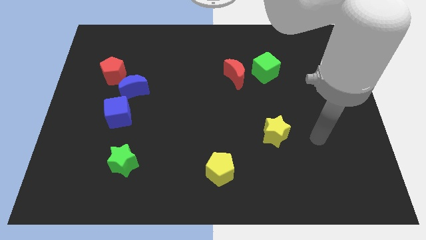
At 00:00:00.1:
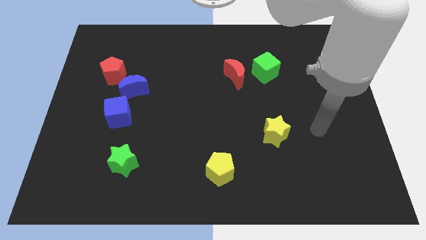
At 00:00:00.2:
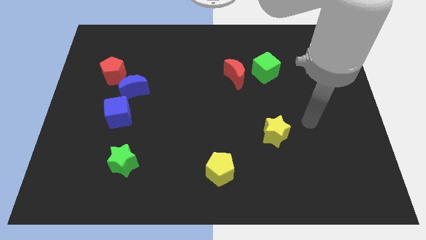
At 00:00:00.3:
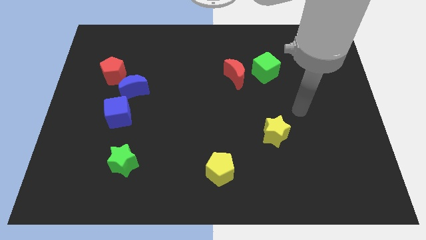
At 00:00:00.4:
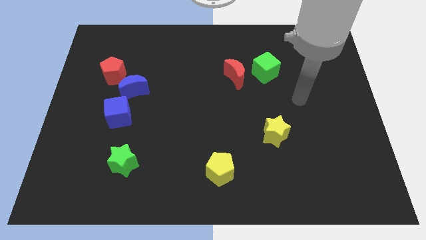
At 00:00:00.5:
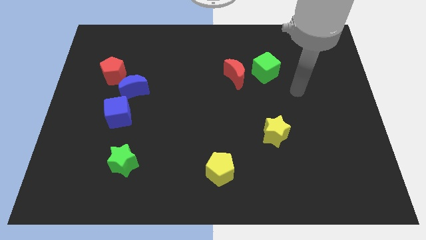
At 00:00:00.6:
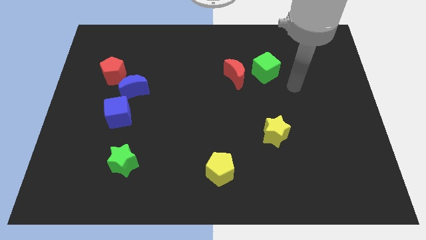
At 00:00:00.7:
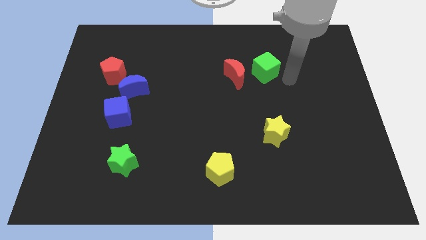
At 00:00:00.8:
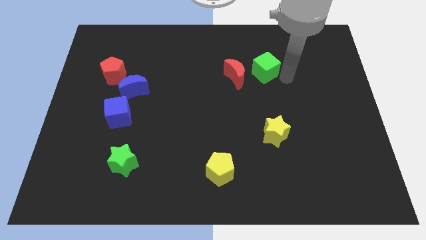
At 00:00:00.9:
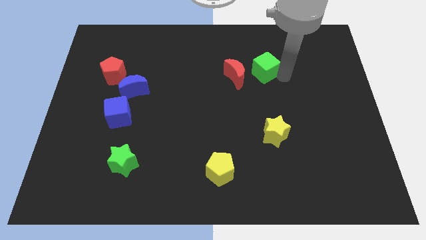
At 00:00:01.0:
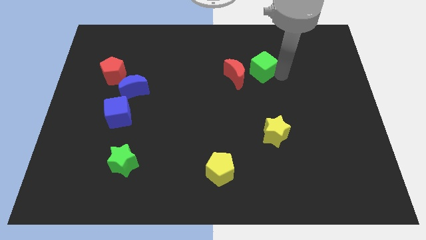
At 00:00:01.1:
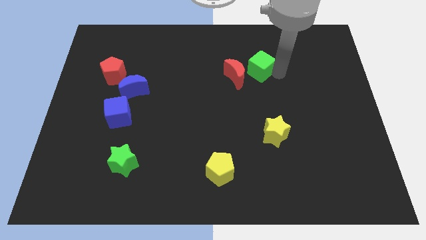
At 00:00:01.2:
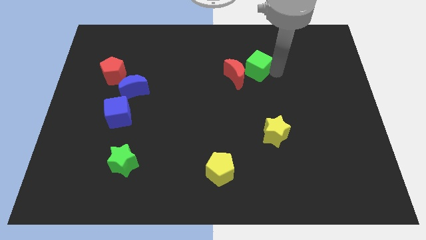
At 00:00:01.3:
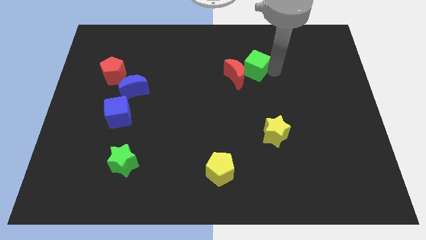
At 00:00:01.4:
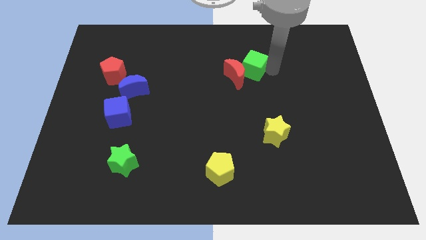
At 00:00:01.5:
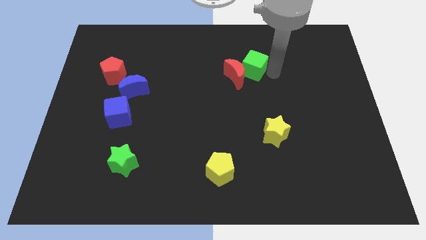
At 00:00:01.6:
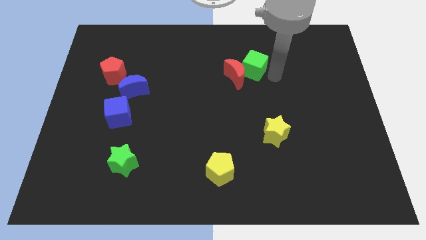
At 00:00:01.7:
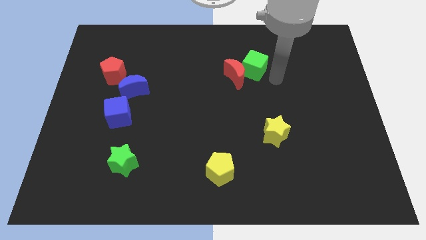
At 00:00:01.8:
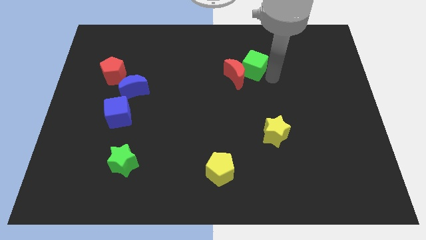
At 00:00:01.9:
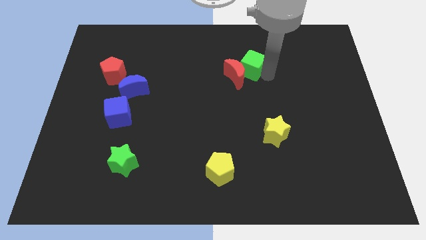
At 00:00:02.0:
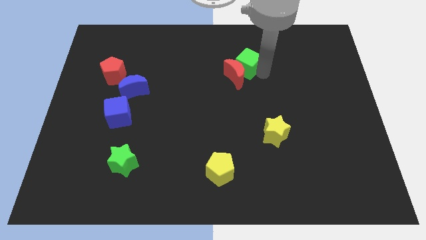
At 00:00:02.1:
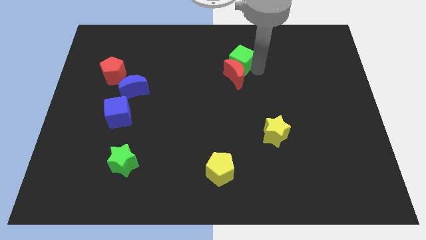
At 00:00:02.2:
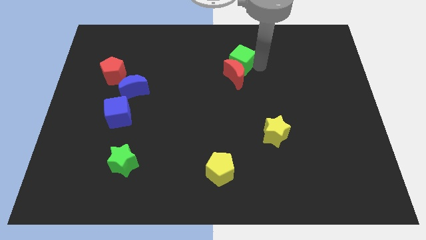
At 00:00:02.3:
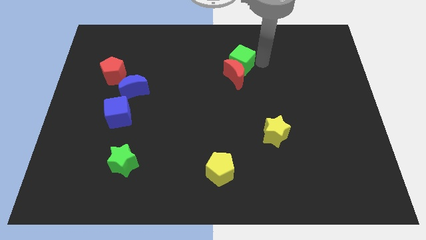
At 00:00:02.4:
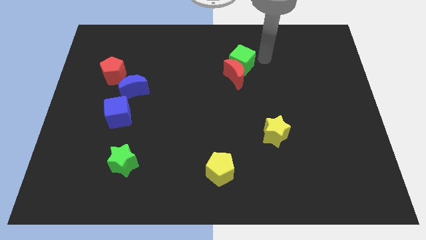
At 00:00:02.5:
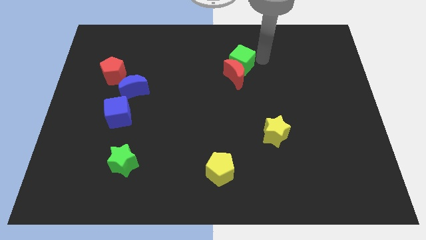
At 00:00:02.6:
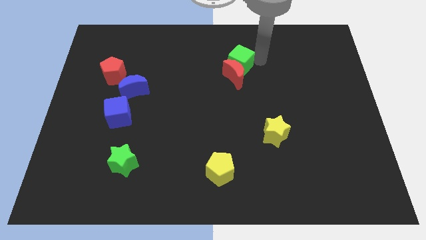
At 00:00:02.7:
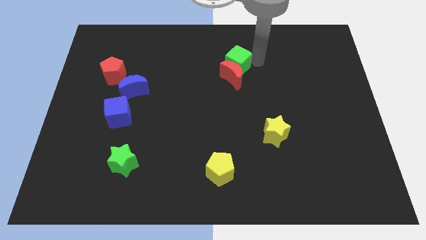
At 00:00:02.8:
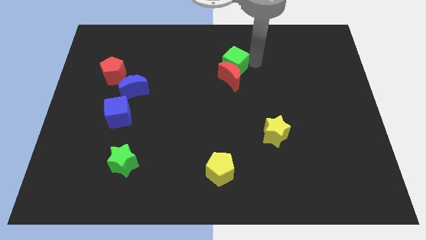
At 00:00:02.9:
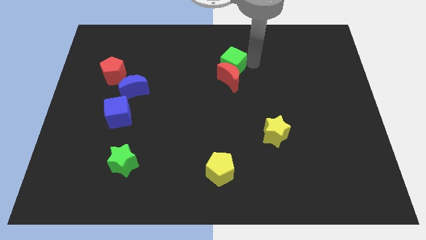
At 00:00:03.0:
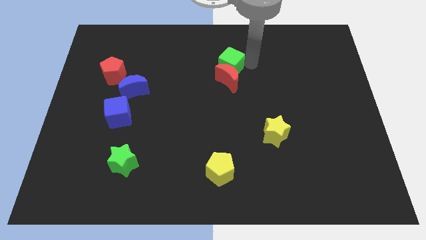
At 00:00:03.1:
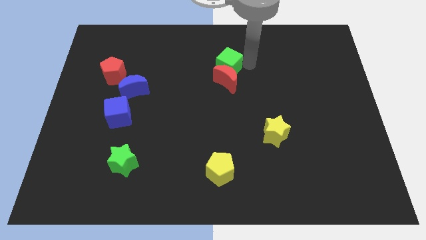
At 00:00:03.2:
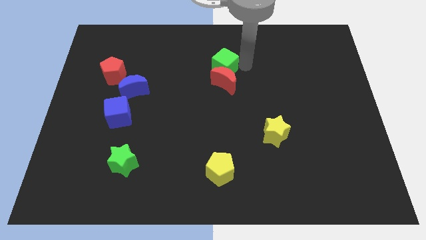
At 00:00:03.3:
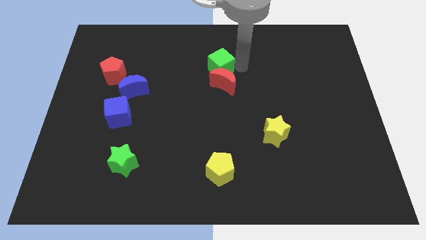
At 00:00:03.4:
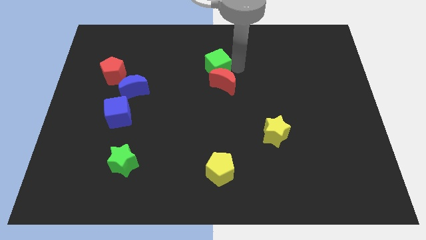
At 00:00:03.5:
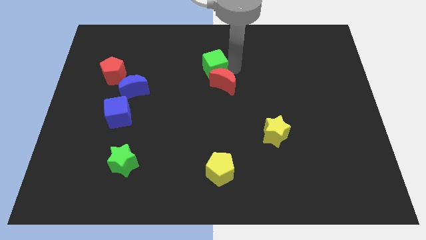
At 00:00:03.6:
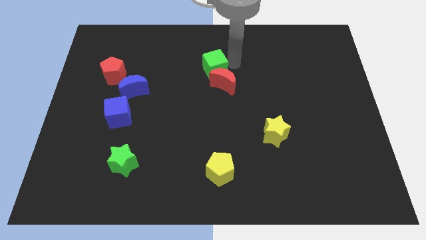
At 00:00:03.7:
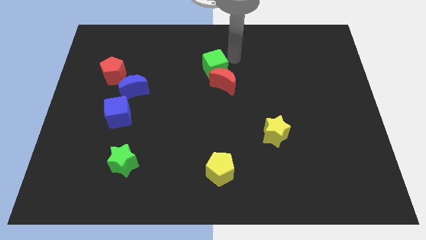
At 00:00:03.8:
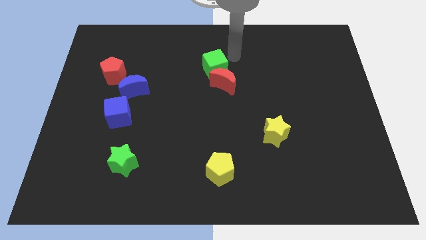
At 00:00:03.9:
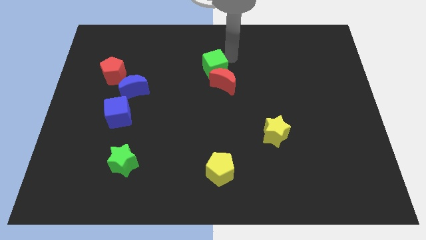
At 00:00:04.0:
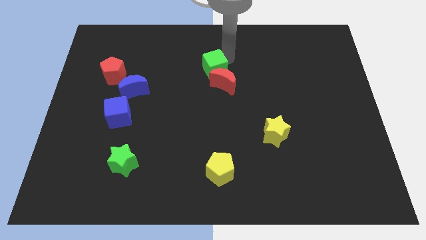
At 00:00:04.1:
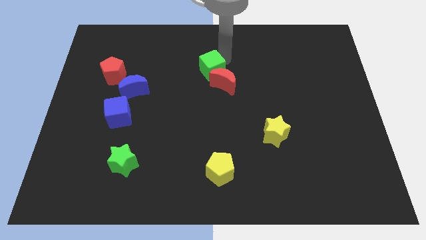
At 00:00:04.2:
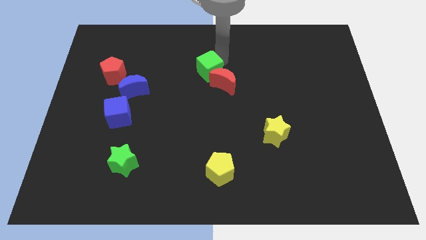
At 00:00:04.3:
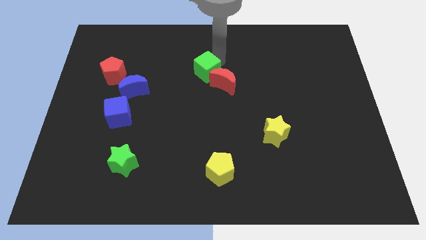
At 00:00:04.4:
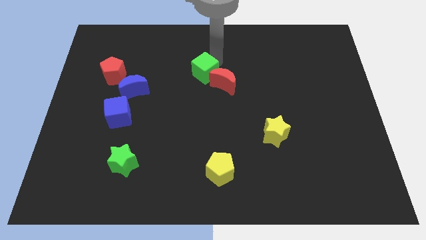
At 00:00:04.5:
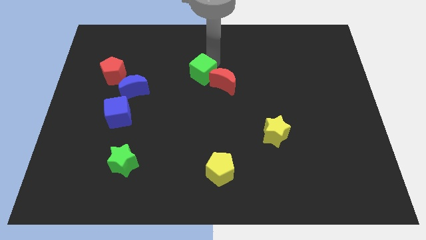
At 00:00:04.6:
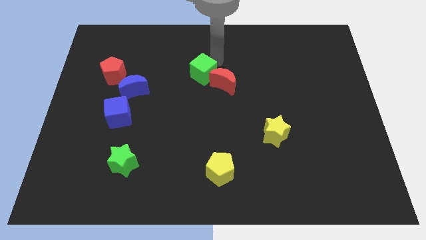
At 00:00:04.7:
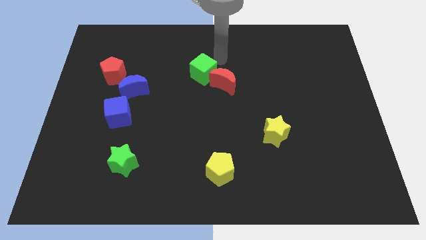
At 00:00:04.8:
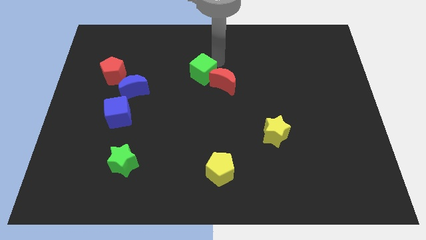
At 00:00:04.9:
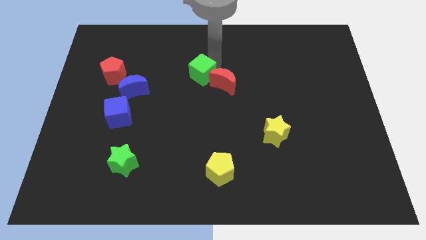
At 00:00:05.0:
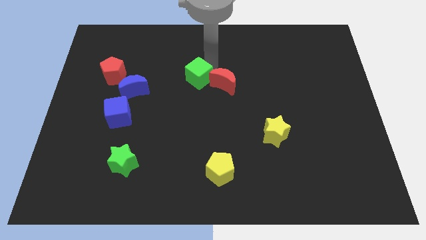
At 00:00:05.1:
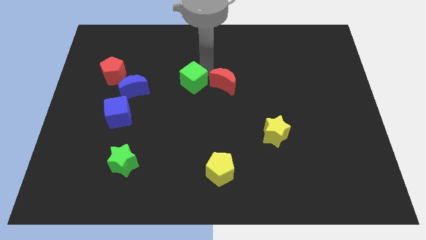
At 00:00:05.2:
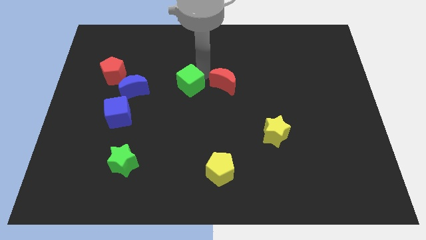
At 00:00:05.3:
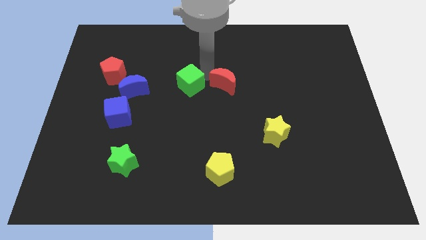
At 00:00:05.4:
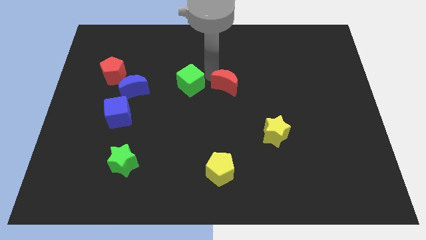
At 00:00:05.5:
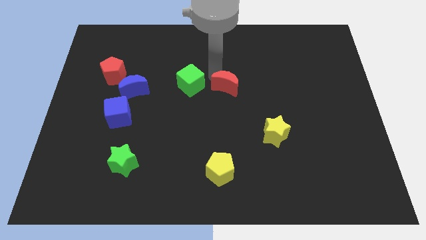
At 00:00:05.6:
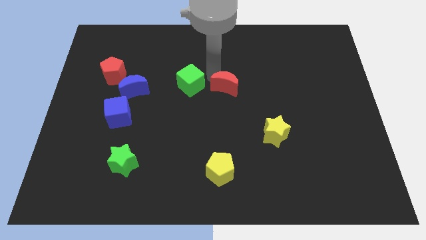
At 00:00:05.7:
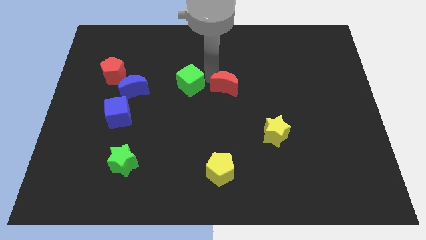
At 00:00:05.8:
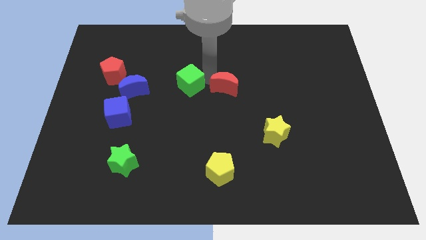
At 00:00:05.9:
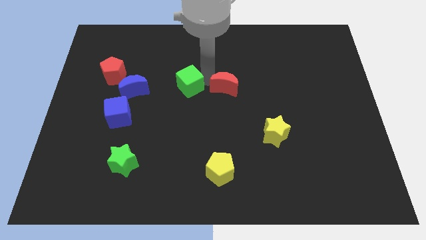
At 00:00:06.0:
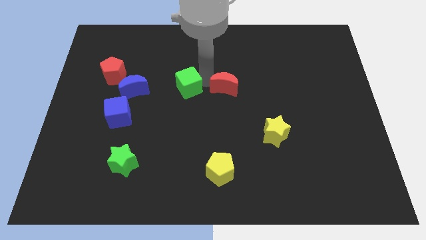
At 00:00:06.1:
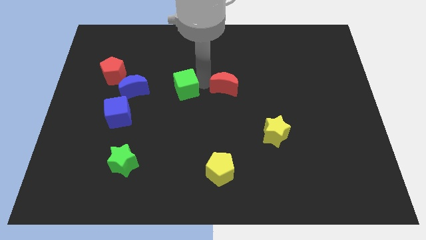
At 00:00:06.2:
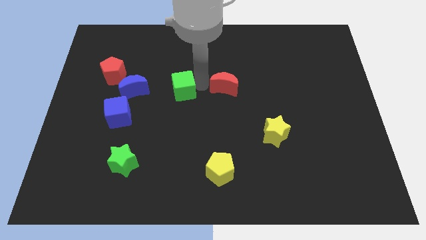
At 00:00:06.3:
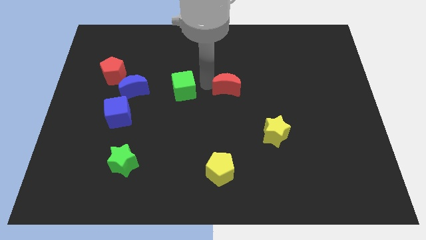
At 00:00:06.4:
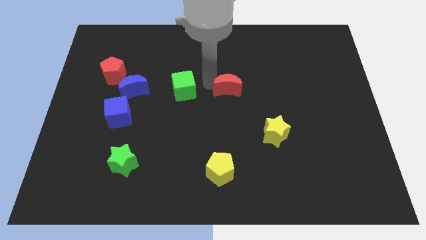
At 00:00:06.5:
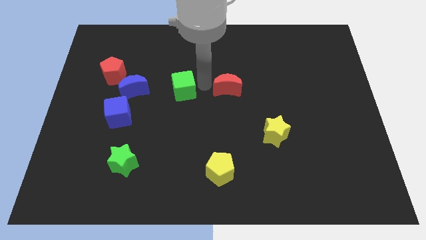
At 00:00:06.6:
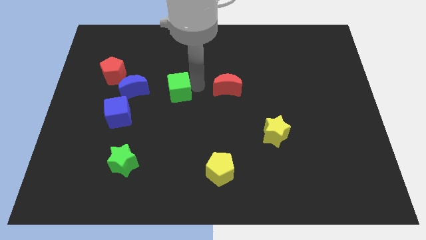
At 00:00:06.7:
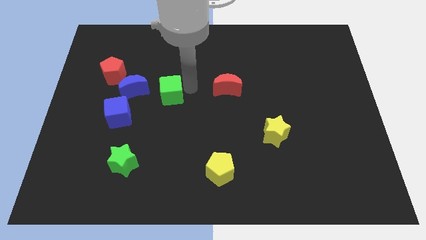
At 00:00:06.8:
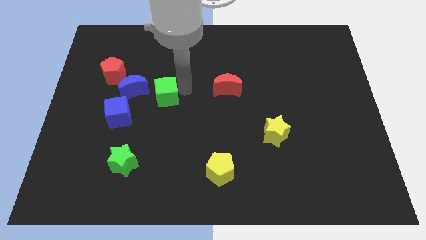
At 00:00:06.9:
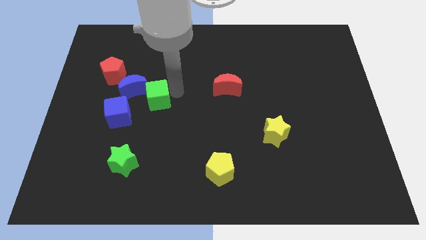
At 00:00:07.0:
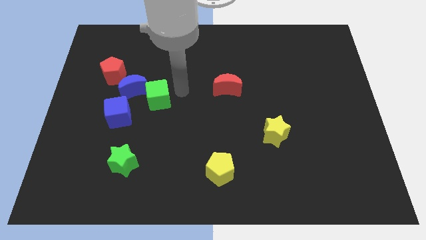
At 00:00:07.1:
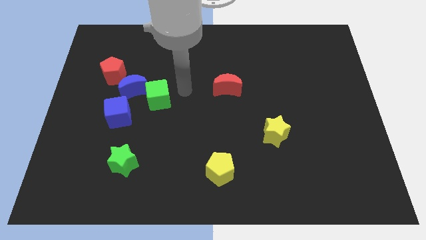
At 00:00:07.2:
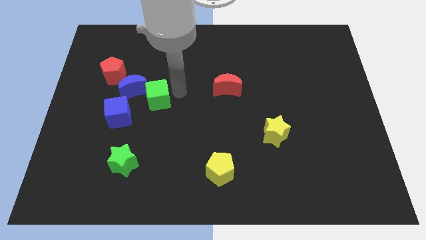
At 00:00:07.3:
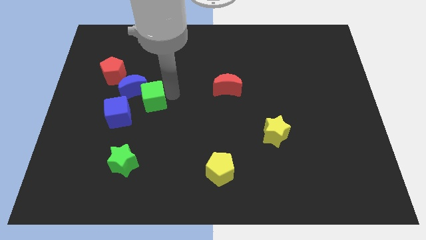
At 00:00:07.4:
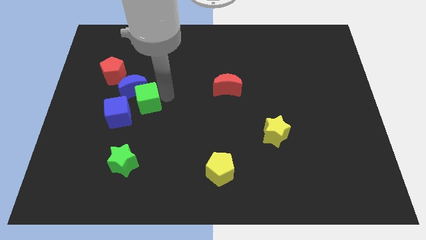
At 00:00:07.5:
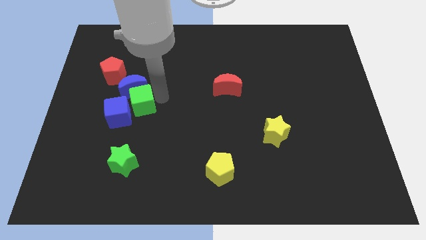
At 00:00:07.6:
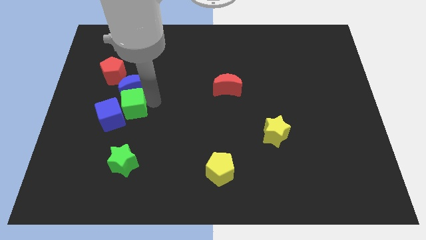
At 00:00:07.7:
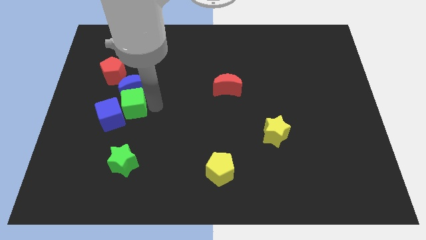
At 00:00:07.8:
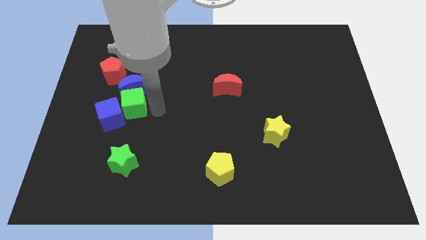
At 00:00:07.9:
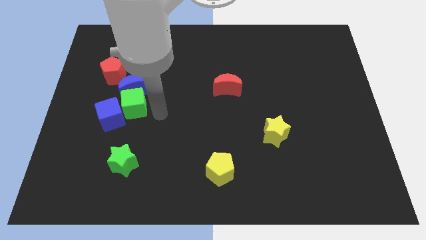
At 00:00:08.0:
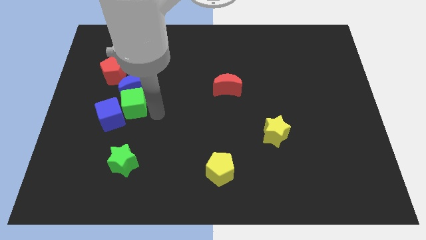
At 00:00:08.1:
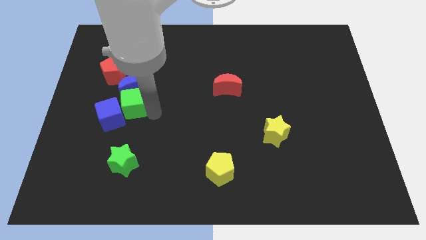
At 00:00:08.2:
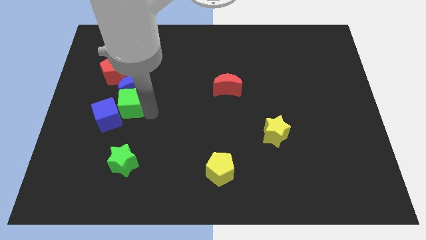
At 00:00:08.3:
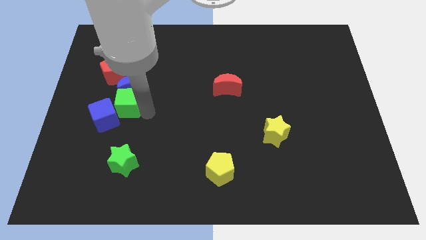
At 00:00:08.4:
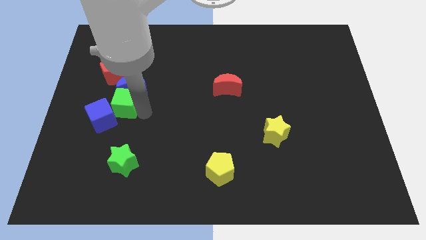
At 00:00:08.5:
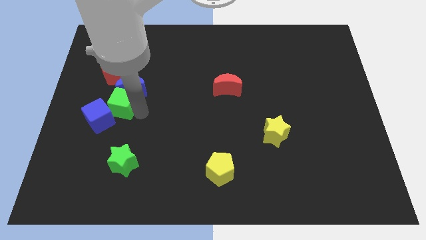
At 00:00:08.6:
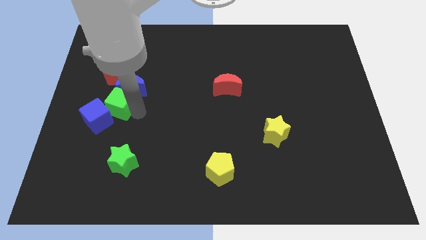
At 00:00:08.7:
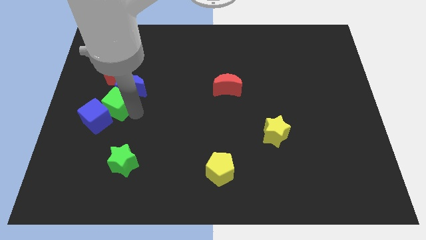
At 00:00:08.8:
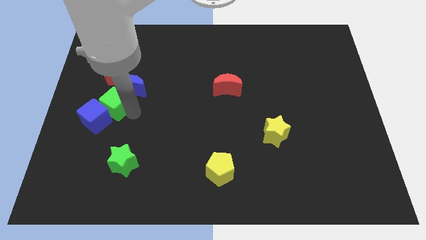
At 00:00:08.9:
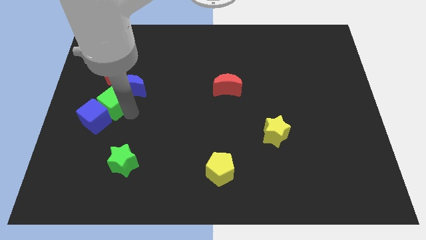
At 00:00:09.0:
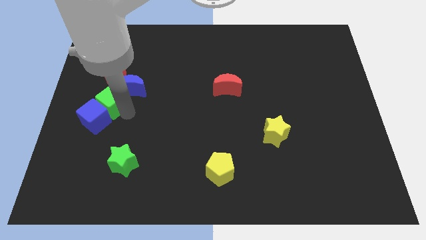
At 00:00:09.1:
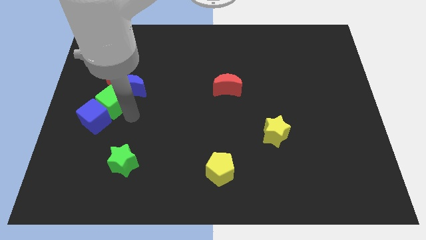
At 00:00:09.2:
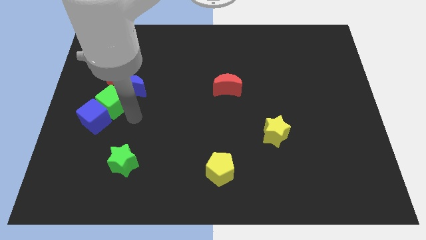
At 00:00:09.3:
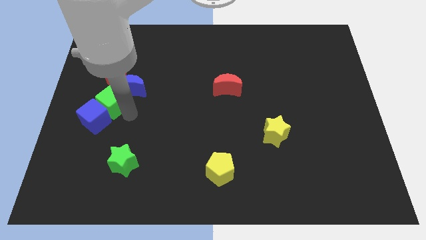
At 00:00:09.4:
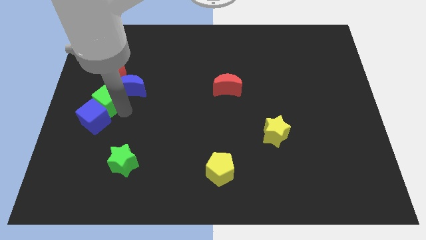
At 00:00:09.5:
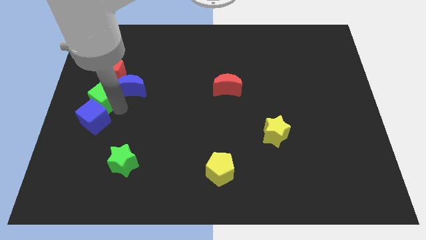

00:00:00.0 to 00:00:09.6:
move the green cube to the left side of the board
